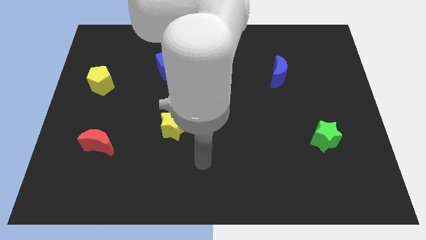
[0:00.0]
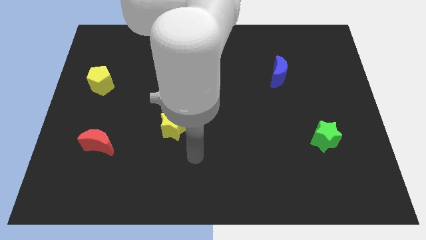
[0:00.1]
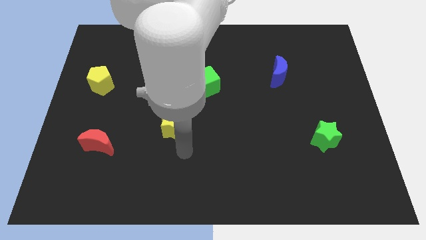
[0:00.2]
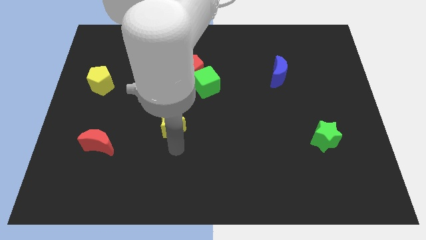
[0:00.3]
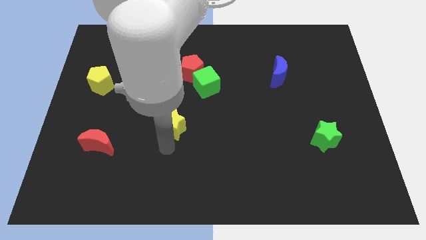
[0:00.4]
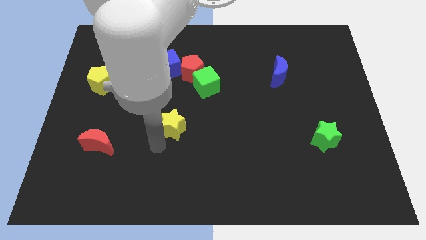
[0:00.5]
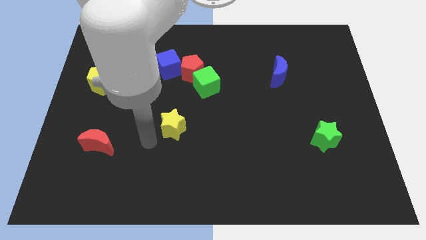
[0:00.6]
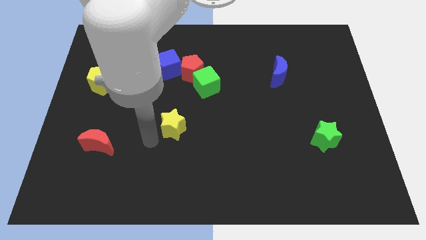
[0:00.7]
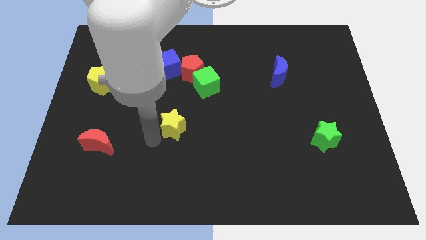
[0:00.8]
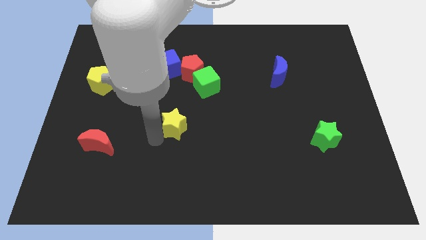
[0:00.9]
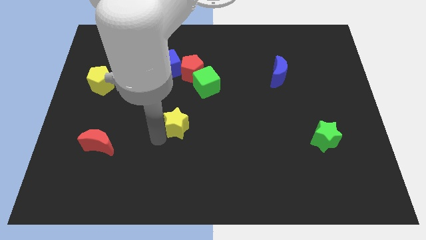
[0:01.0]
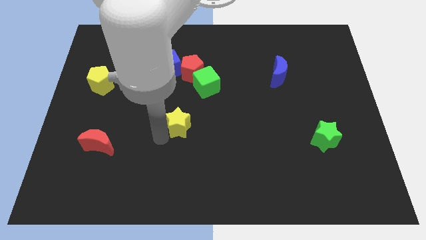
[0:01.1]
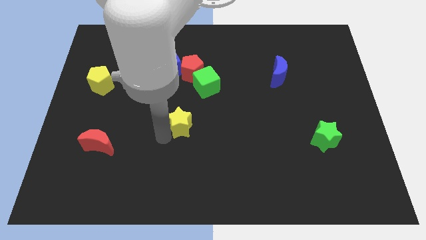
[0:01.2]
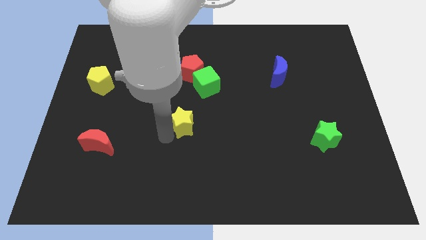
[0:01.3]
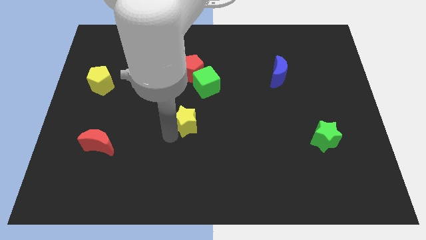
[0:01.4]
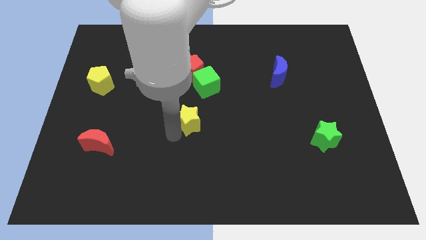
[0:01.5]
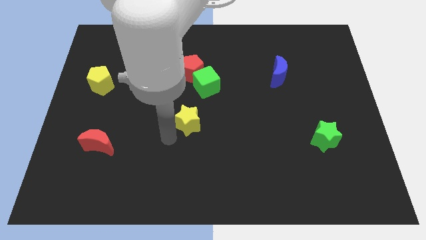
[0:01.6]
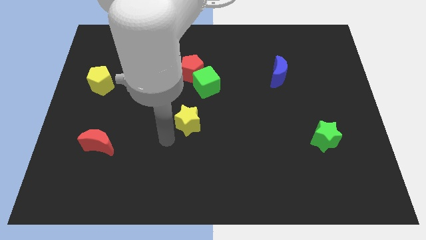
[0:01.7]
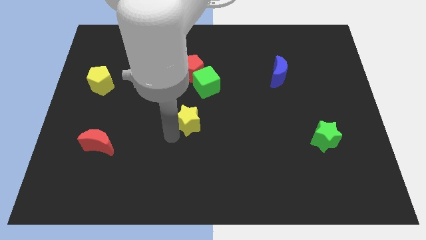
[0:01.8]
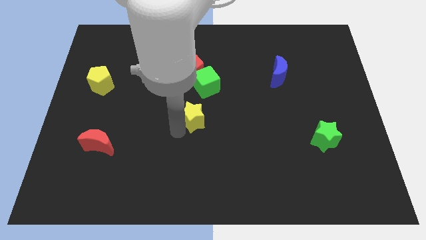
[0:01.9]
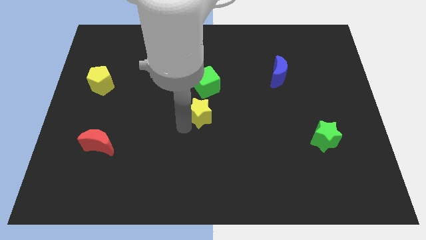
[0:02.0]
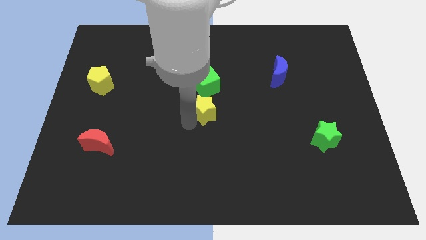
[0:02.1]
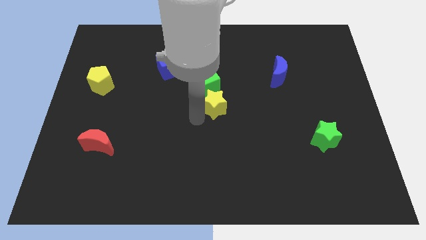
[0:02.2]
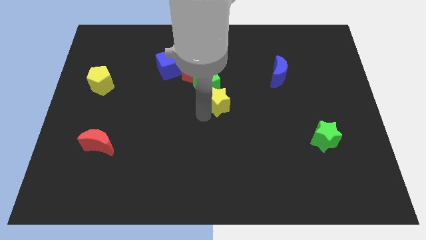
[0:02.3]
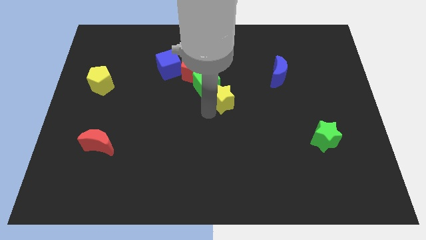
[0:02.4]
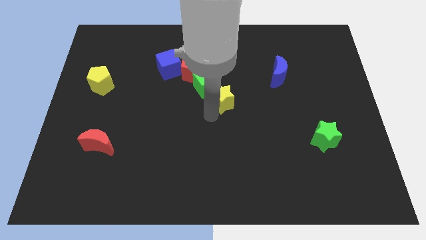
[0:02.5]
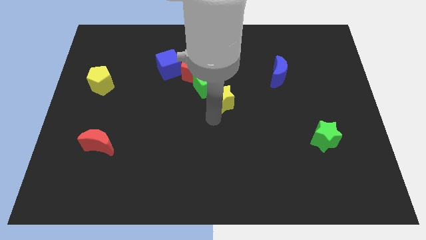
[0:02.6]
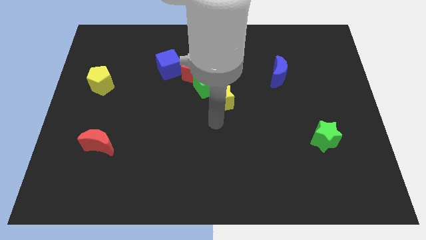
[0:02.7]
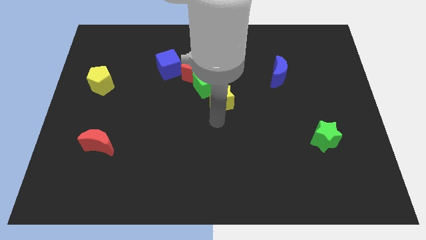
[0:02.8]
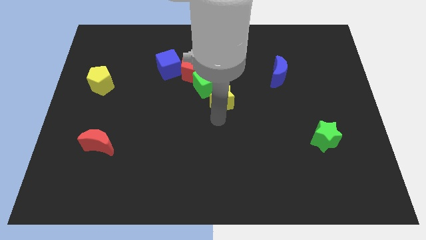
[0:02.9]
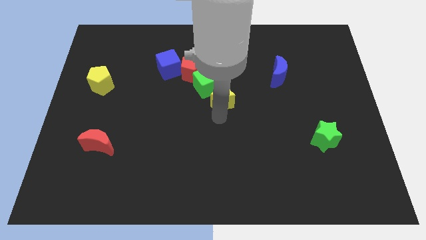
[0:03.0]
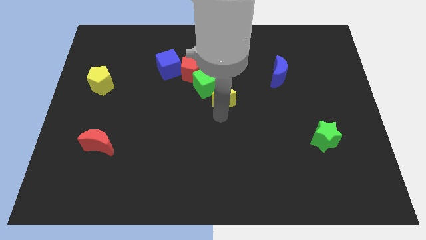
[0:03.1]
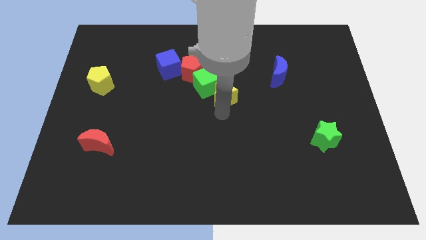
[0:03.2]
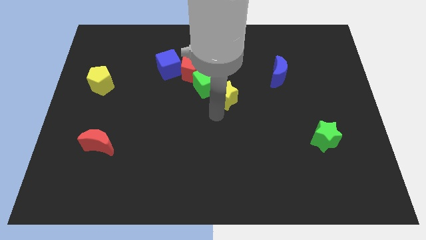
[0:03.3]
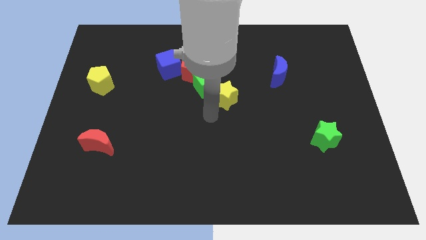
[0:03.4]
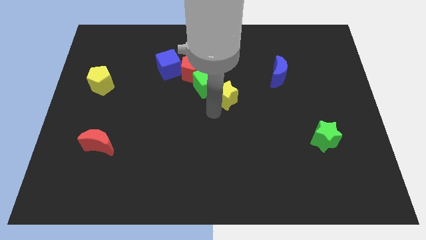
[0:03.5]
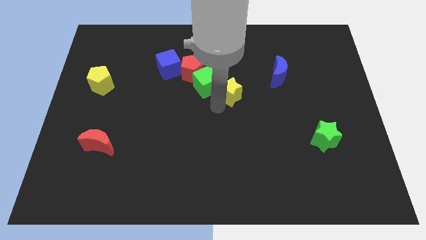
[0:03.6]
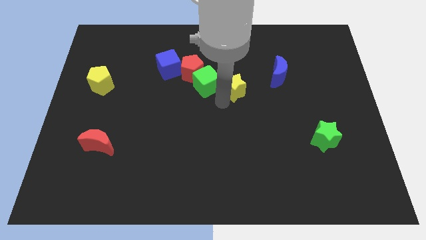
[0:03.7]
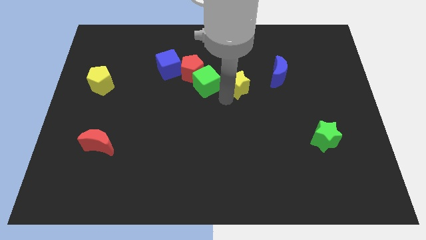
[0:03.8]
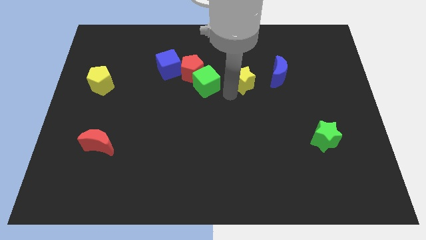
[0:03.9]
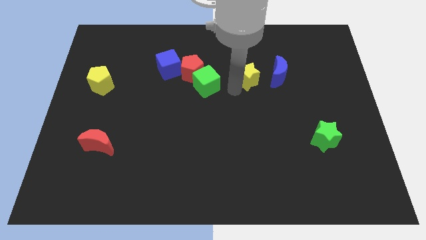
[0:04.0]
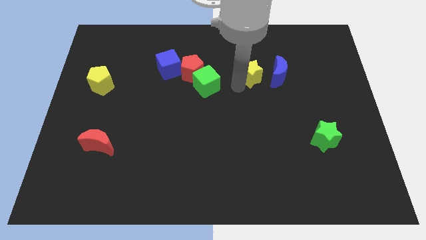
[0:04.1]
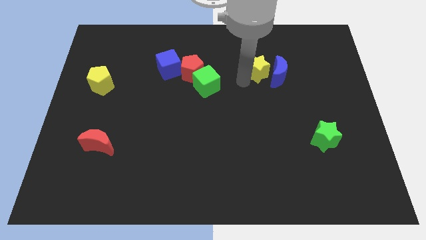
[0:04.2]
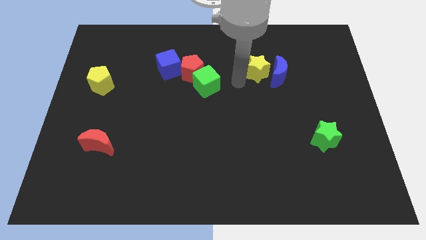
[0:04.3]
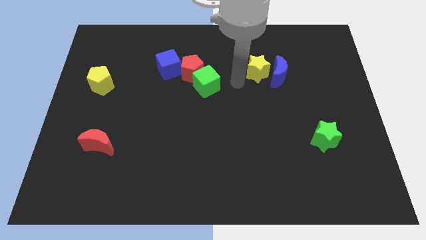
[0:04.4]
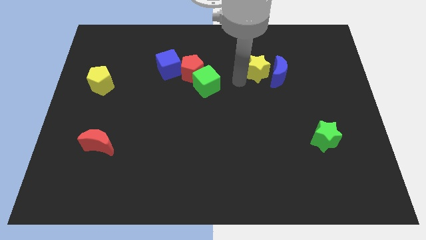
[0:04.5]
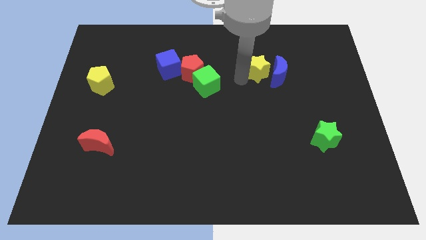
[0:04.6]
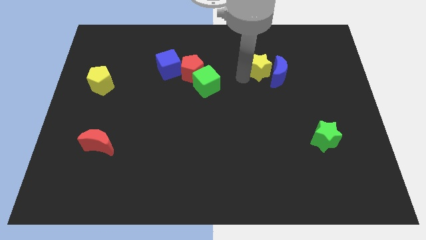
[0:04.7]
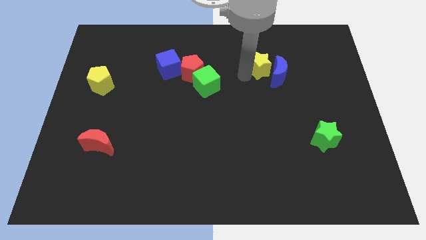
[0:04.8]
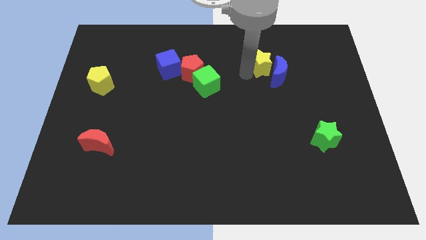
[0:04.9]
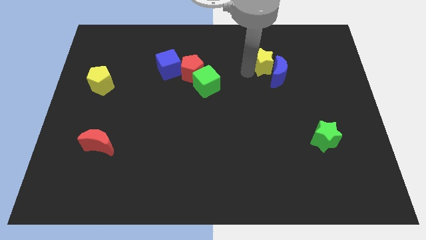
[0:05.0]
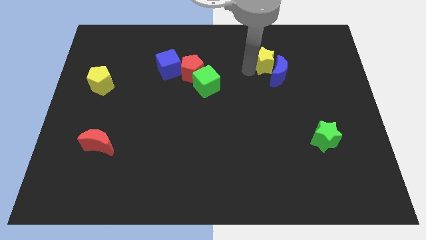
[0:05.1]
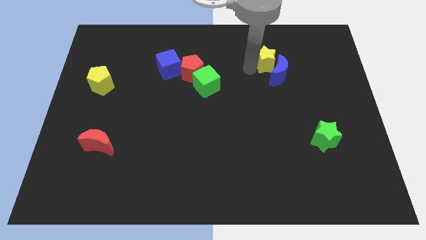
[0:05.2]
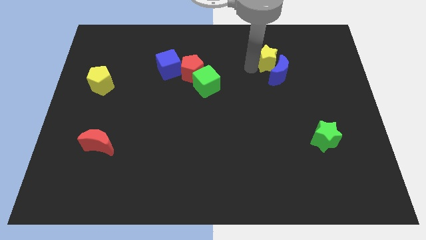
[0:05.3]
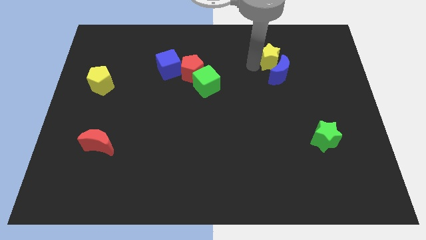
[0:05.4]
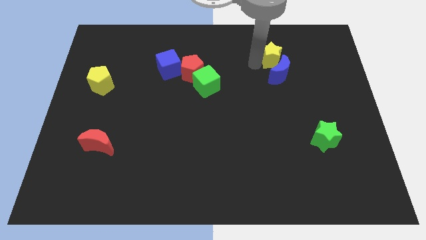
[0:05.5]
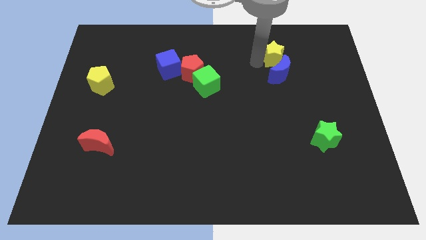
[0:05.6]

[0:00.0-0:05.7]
move the yellow star diagonally up and to the right of the blue moon

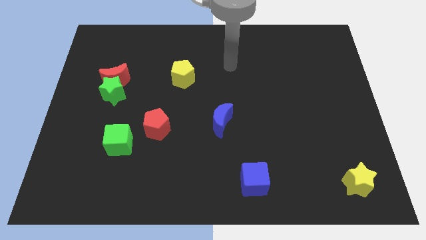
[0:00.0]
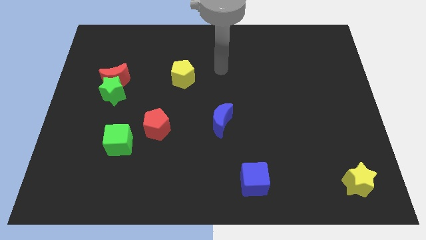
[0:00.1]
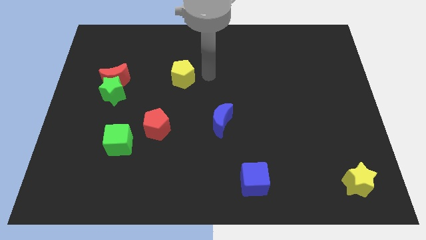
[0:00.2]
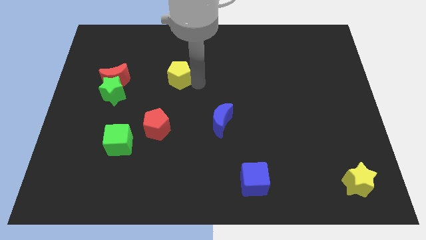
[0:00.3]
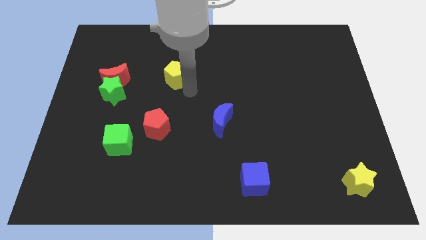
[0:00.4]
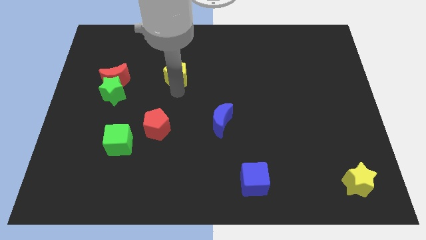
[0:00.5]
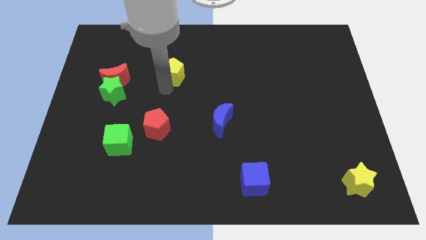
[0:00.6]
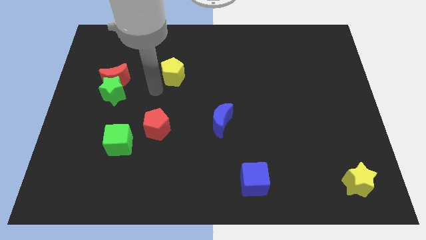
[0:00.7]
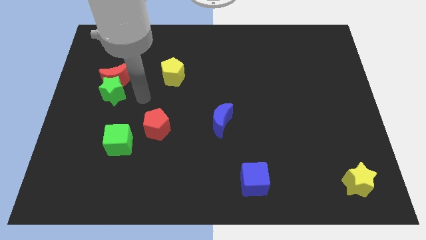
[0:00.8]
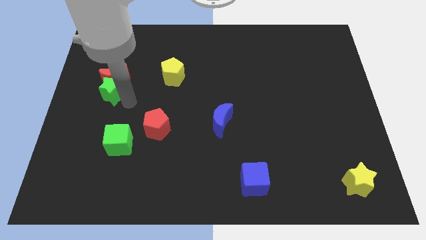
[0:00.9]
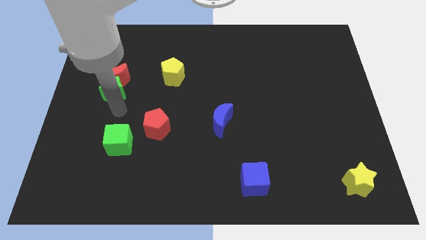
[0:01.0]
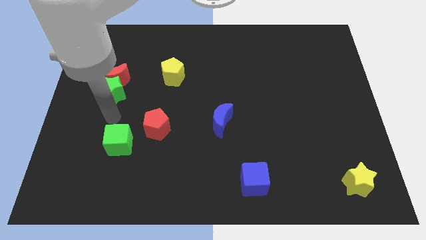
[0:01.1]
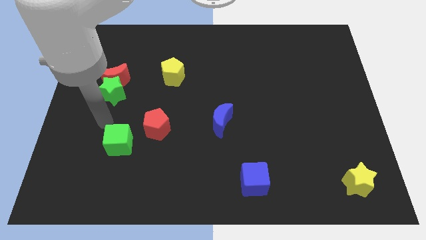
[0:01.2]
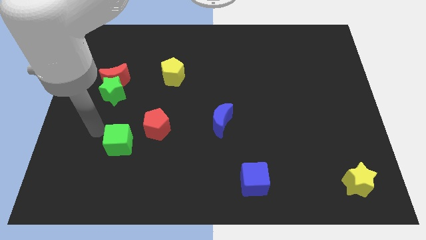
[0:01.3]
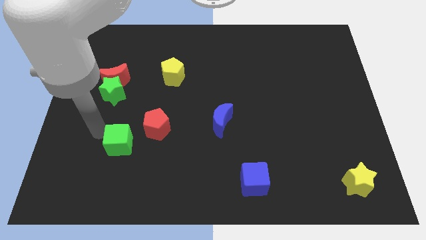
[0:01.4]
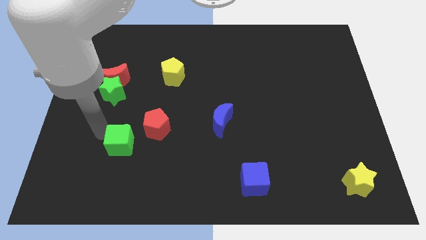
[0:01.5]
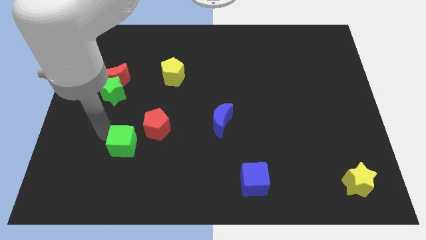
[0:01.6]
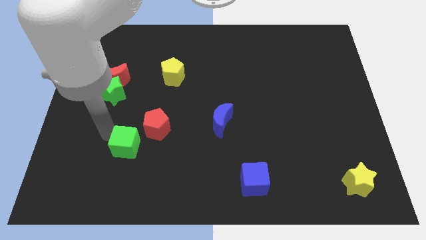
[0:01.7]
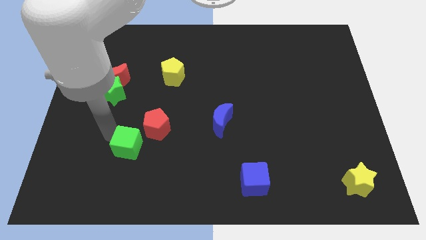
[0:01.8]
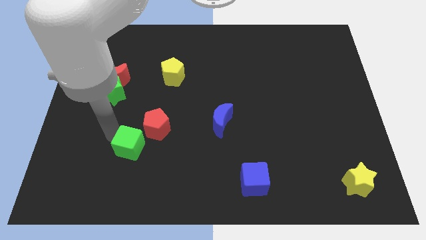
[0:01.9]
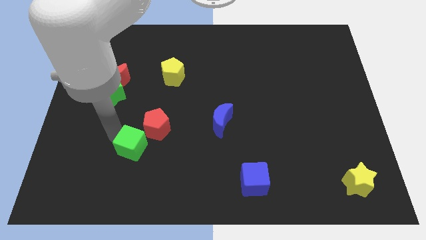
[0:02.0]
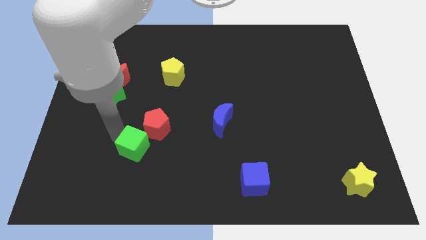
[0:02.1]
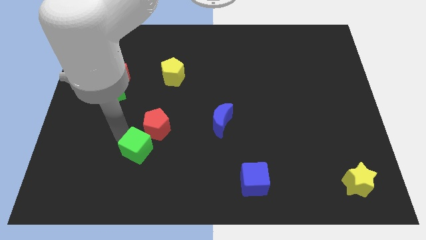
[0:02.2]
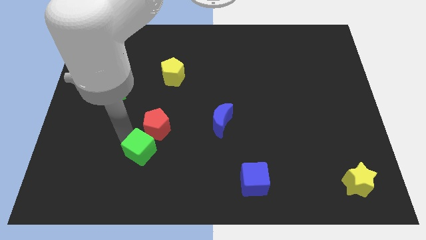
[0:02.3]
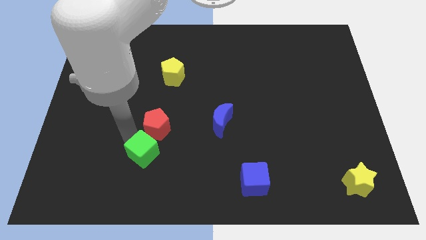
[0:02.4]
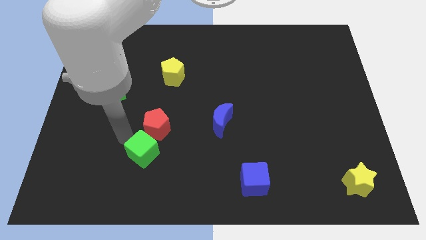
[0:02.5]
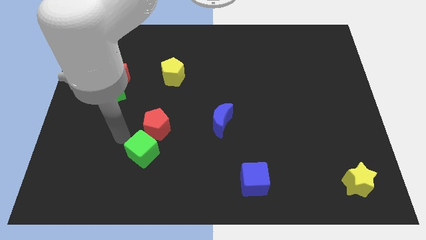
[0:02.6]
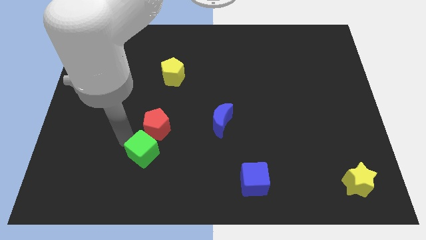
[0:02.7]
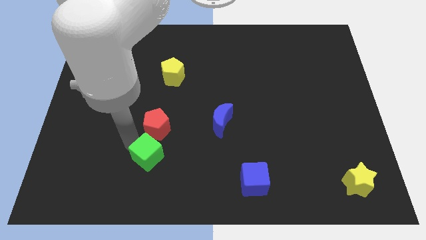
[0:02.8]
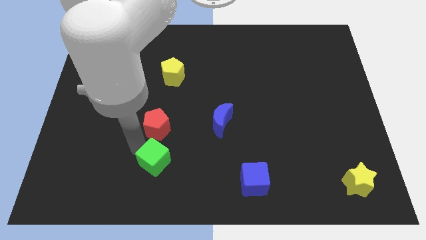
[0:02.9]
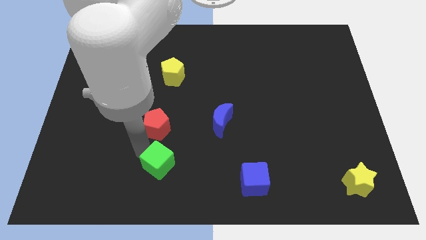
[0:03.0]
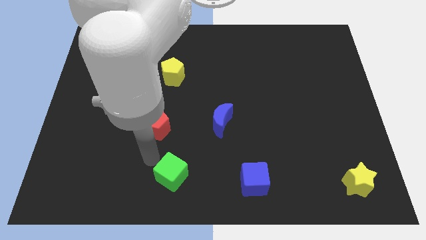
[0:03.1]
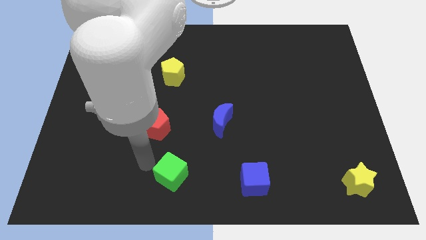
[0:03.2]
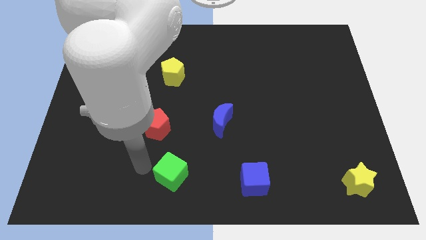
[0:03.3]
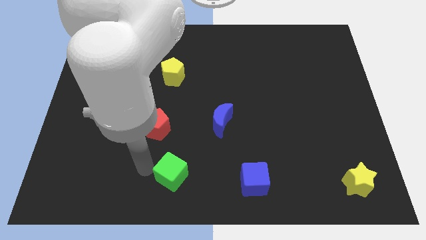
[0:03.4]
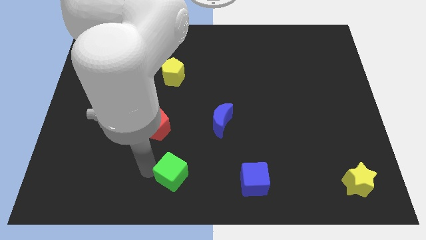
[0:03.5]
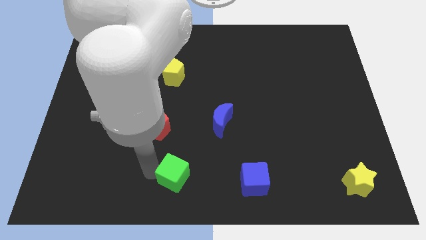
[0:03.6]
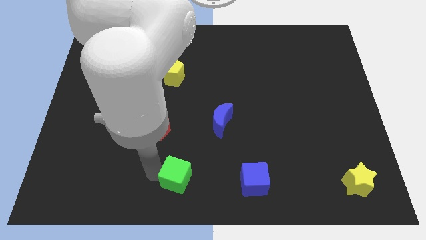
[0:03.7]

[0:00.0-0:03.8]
put the green cube to the left side of the blue cube
